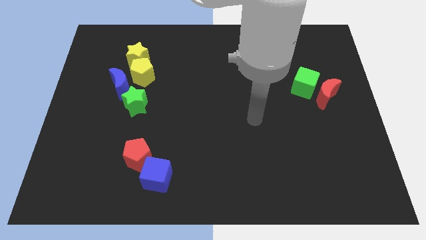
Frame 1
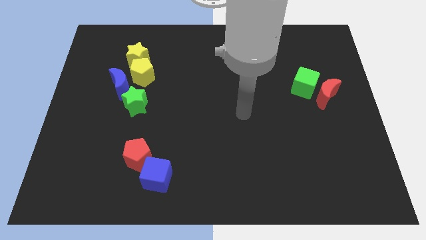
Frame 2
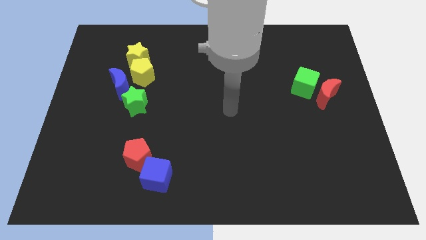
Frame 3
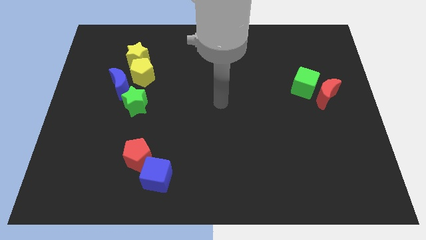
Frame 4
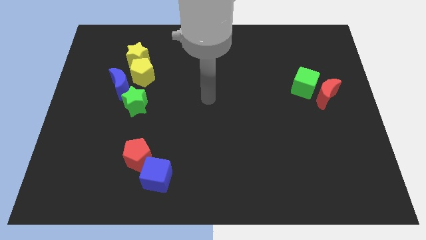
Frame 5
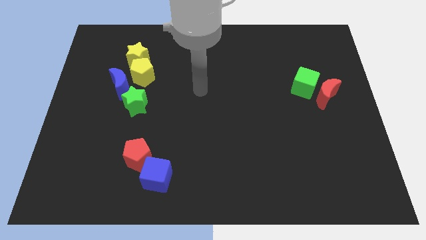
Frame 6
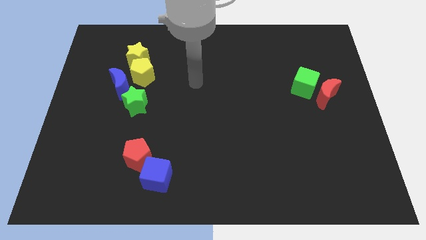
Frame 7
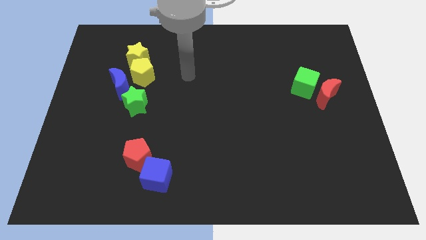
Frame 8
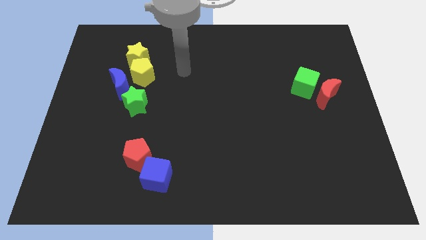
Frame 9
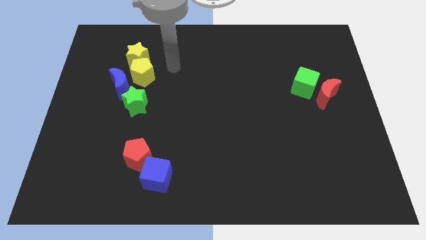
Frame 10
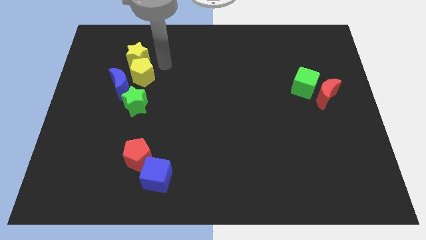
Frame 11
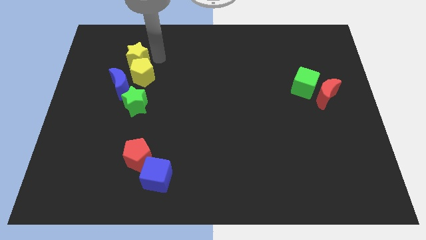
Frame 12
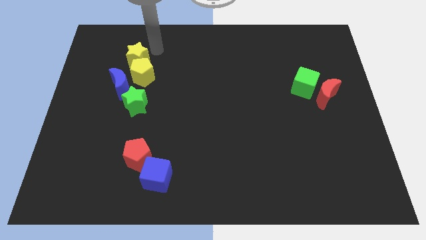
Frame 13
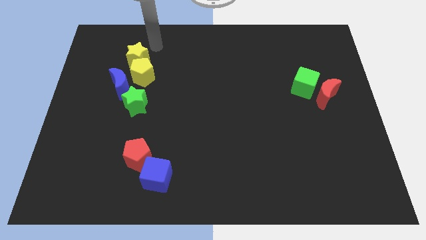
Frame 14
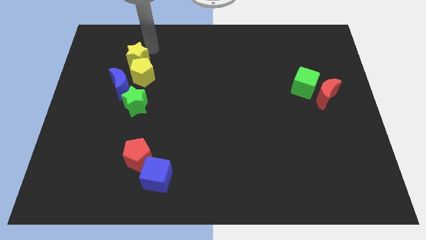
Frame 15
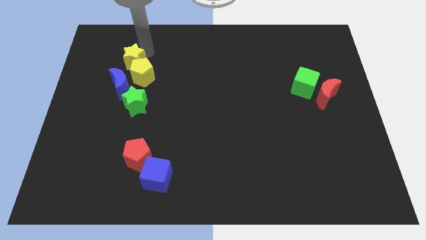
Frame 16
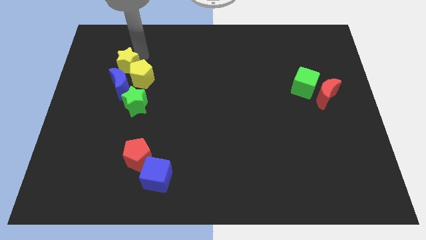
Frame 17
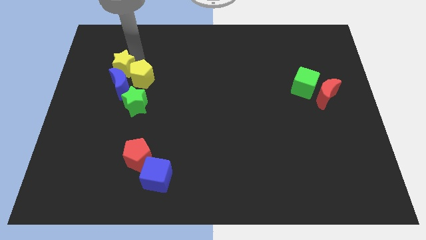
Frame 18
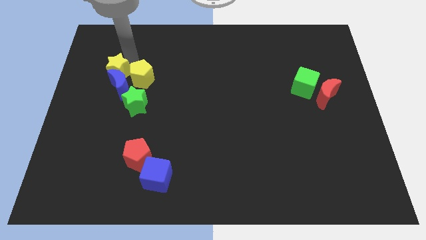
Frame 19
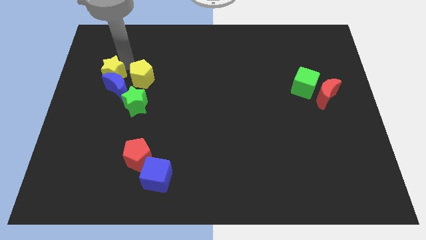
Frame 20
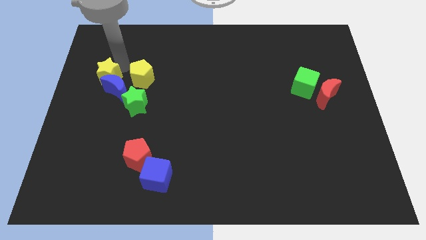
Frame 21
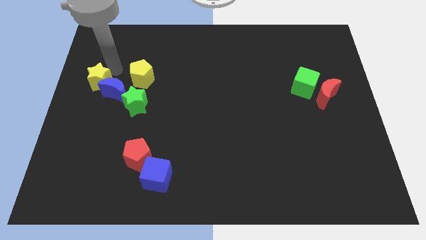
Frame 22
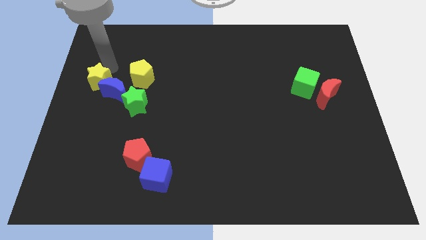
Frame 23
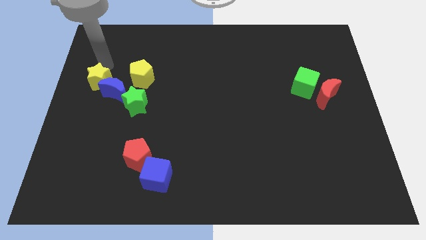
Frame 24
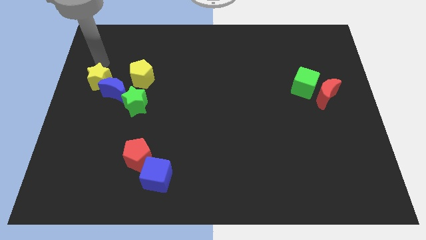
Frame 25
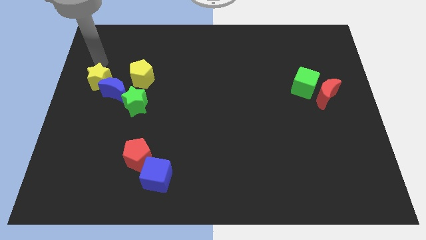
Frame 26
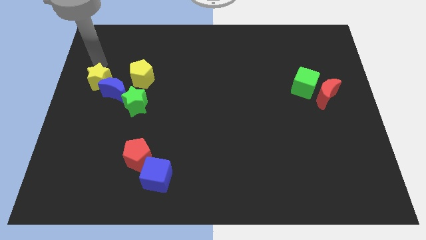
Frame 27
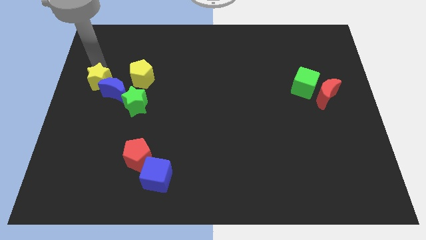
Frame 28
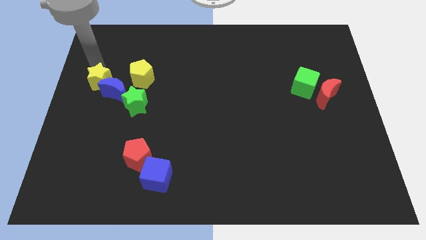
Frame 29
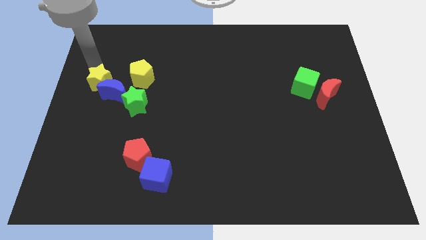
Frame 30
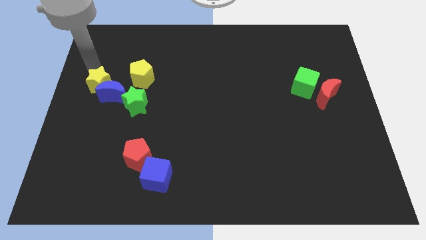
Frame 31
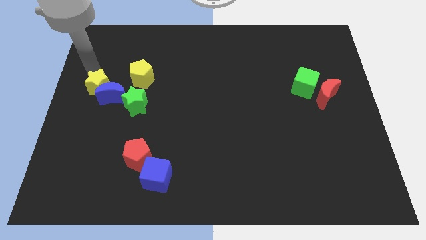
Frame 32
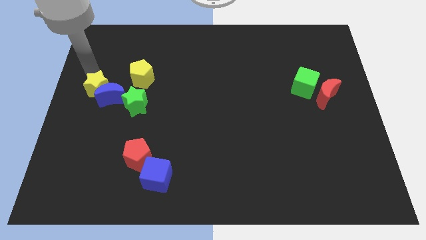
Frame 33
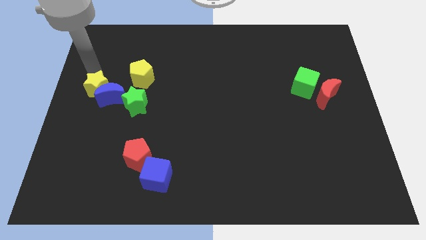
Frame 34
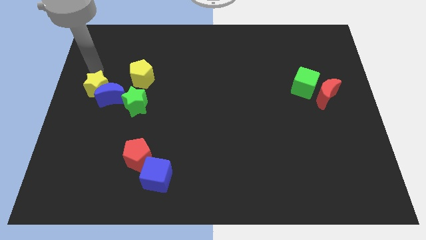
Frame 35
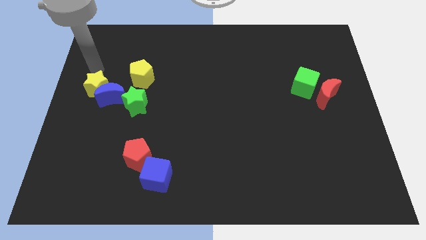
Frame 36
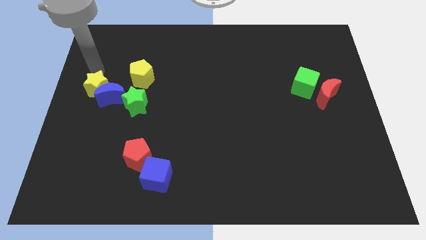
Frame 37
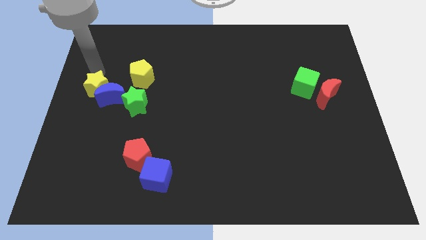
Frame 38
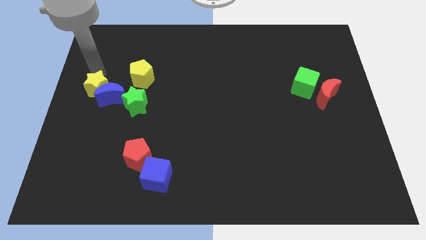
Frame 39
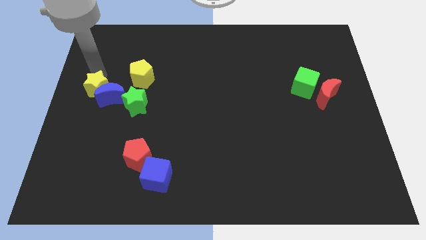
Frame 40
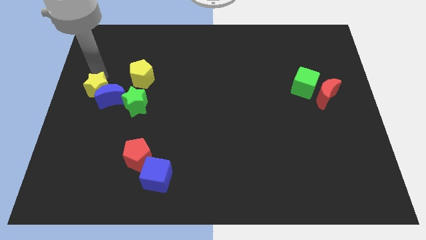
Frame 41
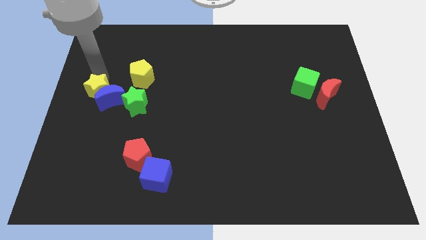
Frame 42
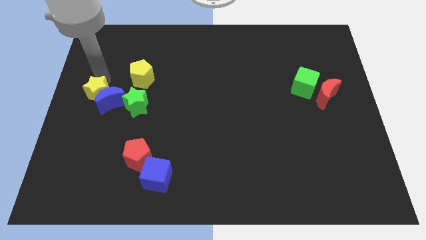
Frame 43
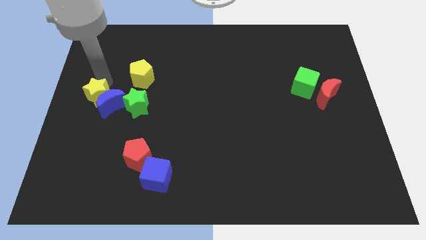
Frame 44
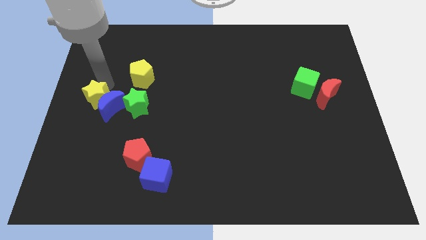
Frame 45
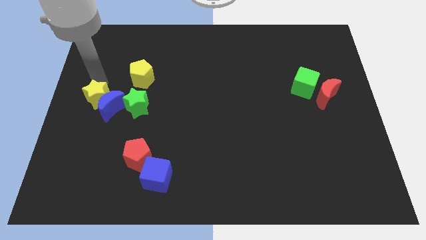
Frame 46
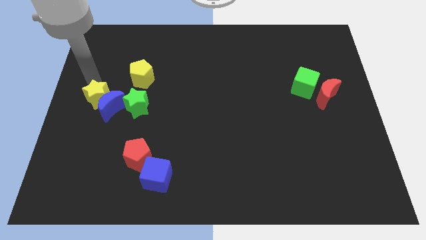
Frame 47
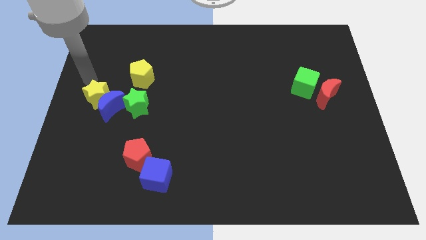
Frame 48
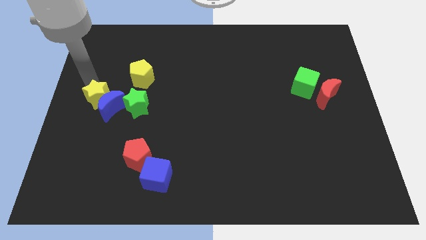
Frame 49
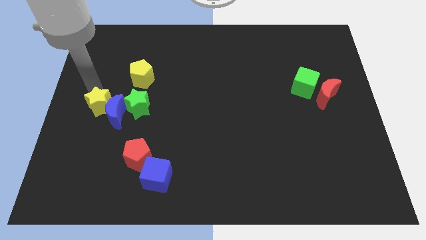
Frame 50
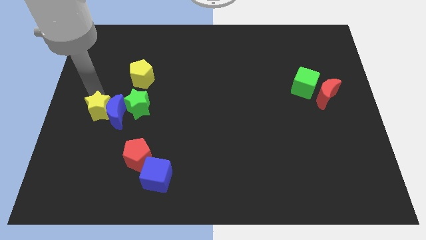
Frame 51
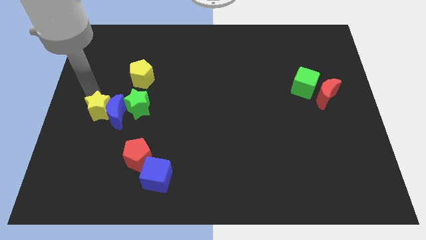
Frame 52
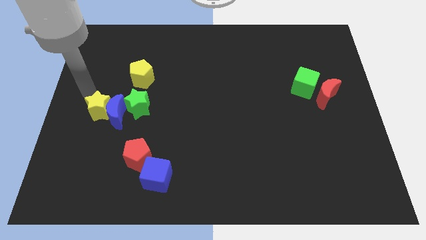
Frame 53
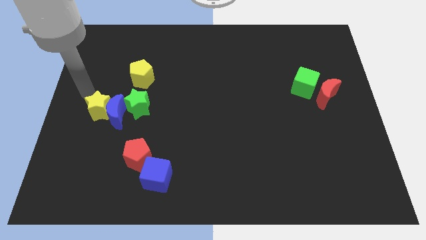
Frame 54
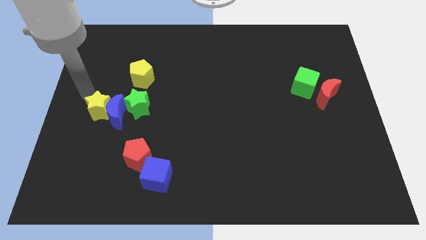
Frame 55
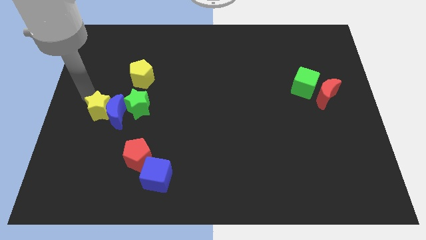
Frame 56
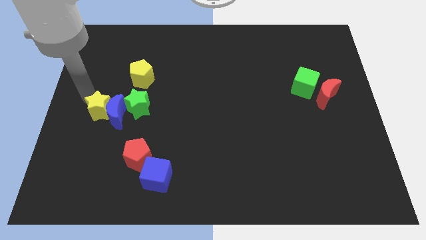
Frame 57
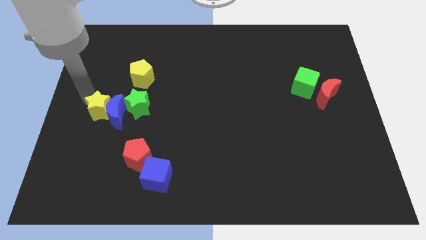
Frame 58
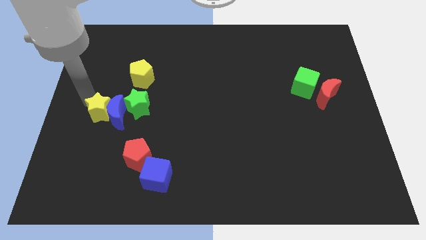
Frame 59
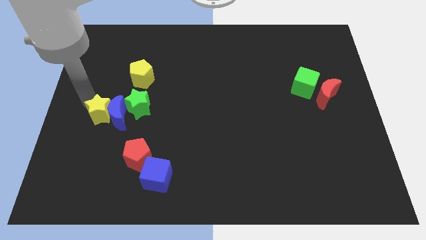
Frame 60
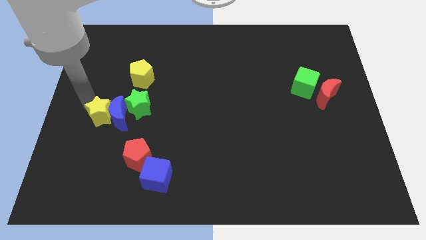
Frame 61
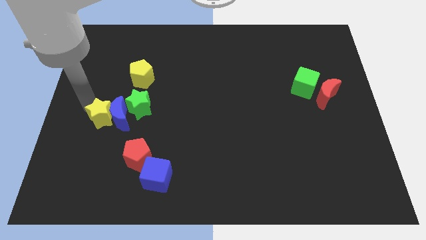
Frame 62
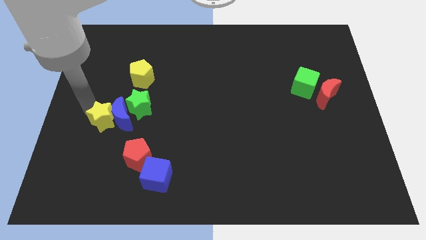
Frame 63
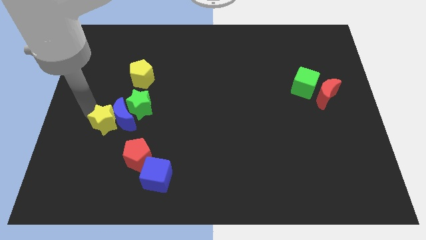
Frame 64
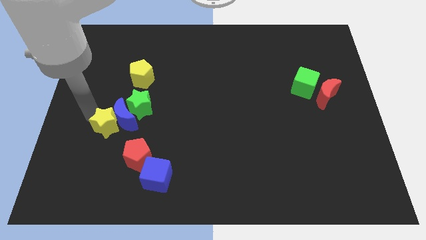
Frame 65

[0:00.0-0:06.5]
move the yellow star downwards

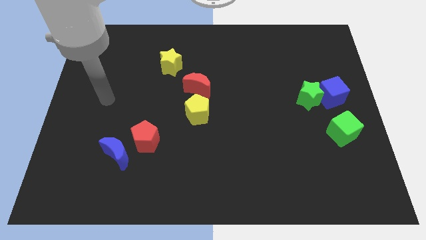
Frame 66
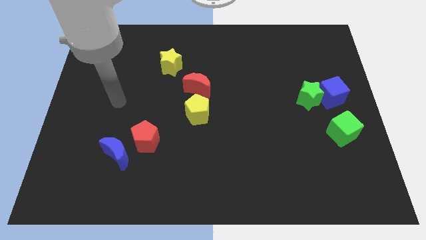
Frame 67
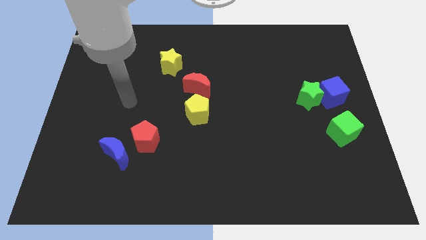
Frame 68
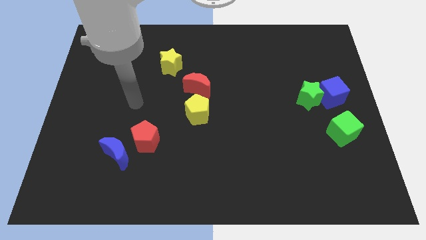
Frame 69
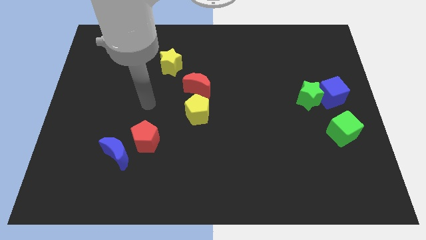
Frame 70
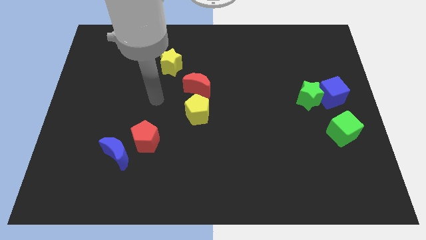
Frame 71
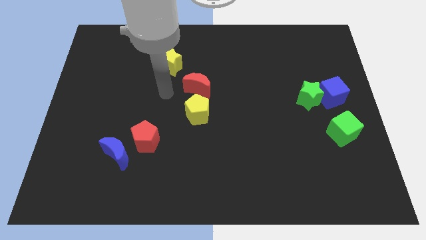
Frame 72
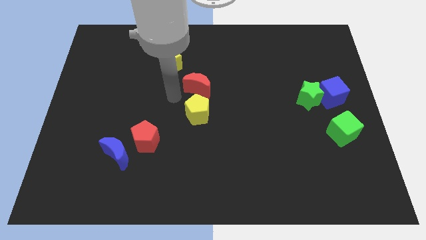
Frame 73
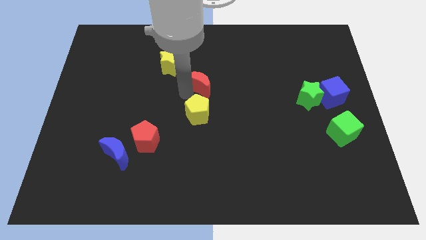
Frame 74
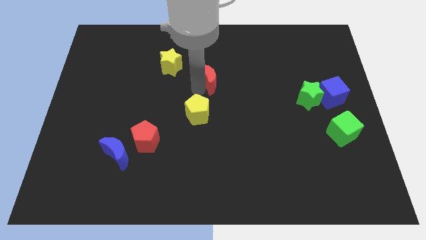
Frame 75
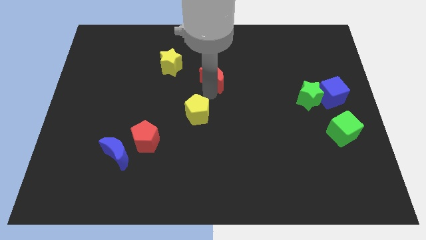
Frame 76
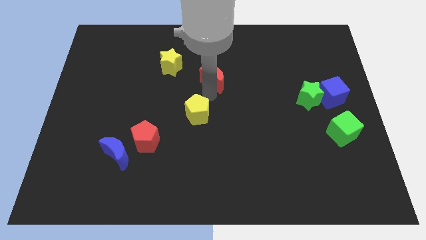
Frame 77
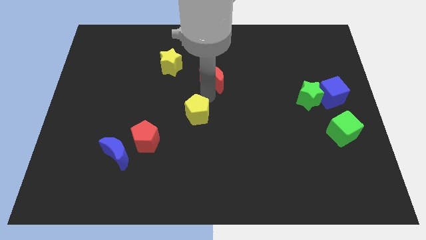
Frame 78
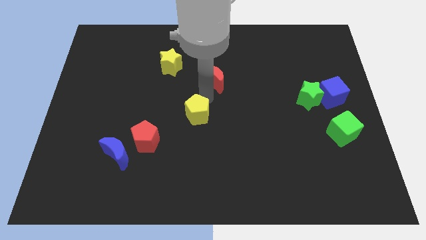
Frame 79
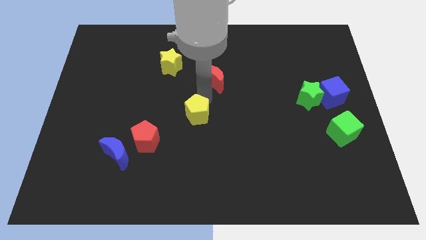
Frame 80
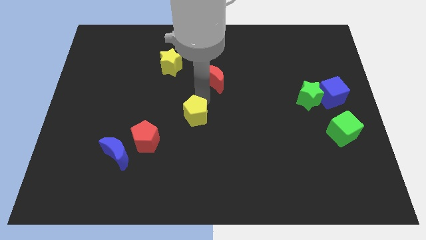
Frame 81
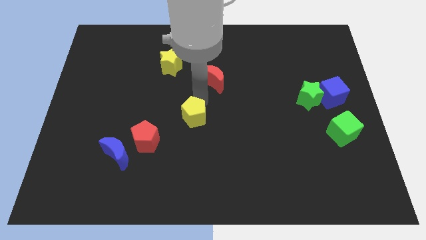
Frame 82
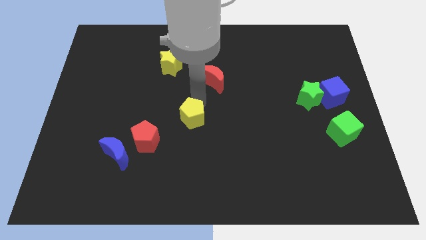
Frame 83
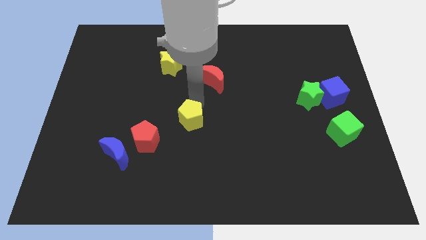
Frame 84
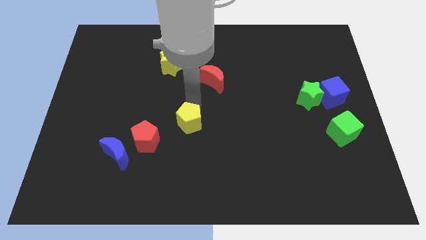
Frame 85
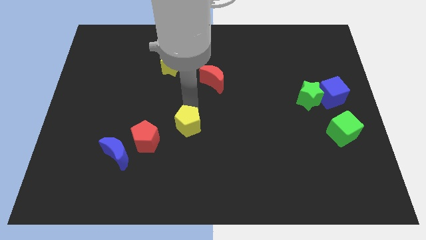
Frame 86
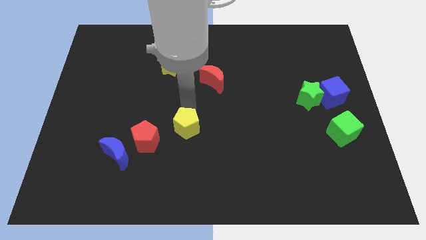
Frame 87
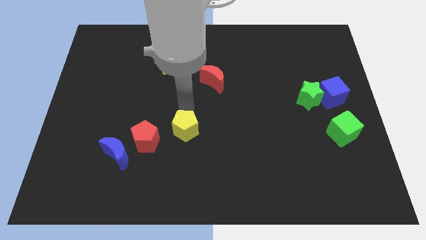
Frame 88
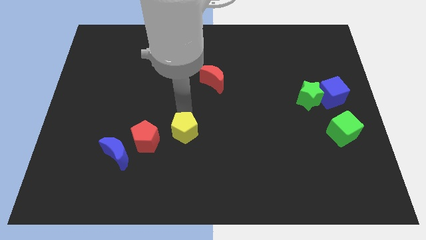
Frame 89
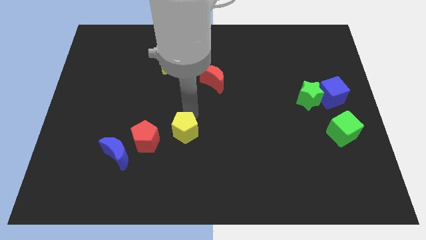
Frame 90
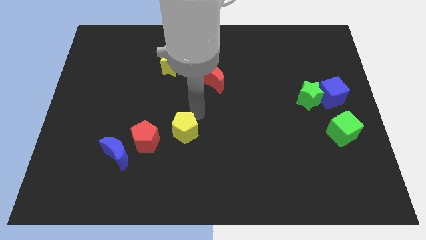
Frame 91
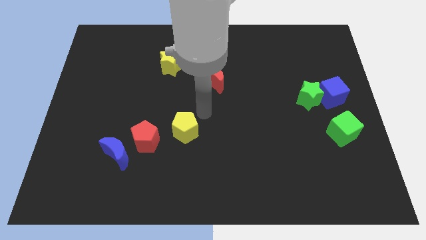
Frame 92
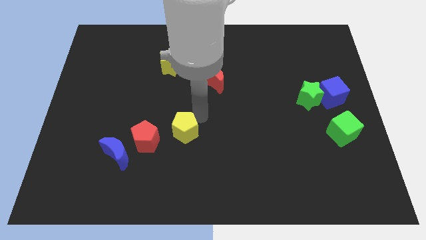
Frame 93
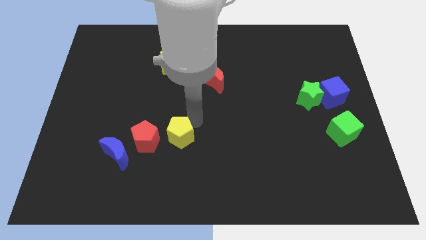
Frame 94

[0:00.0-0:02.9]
slightly slide the yellow pentagon downwards and left
